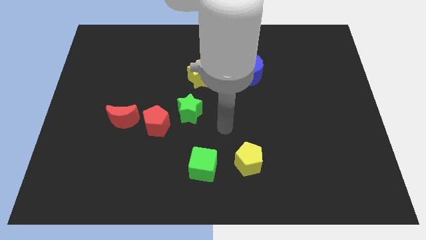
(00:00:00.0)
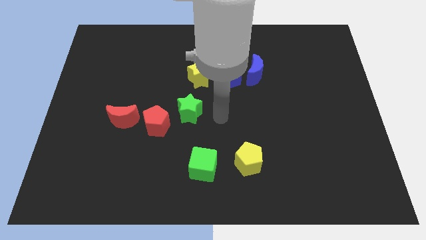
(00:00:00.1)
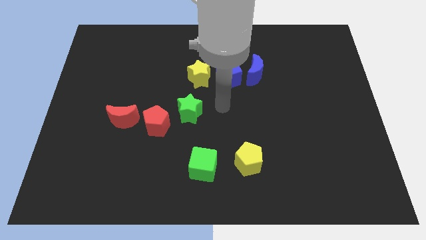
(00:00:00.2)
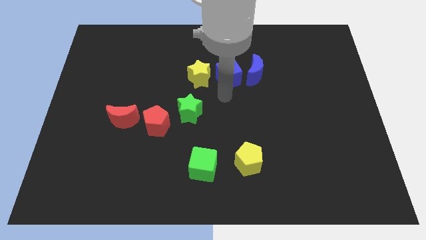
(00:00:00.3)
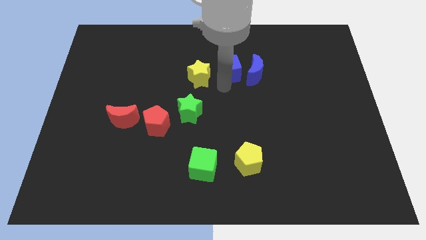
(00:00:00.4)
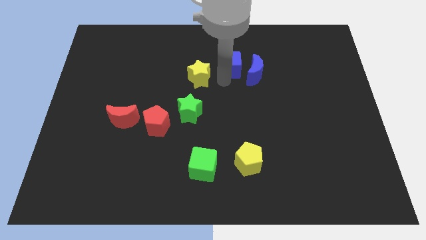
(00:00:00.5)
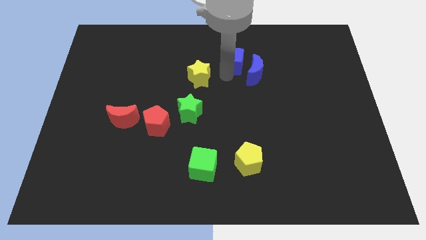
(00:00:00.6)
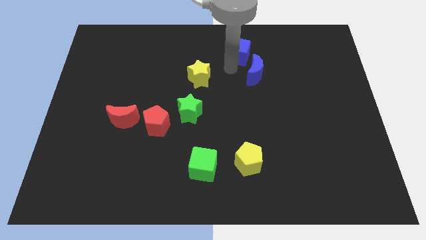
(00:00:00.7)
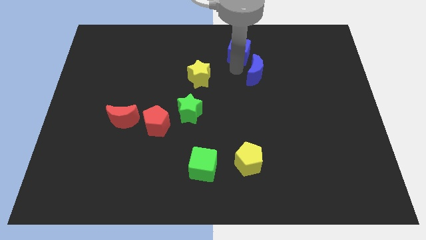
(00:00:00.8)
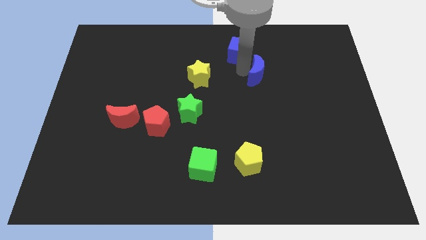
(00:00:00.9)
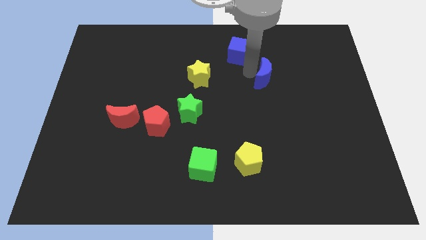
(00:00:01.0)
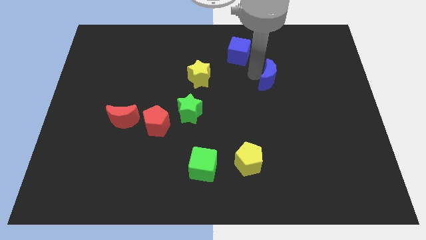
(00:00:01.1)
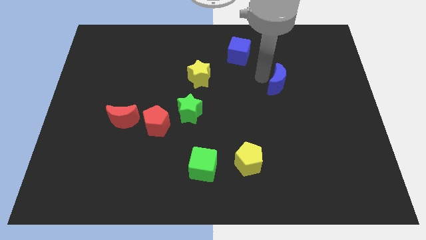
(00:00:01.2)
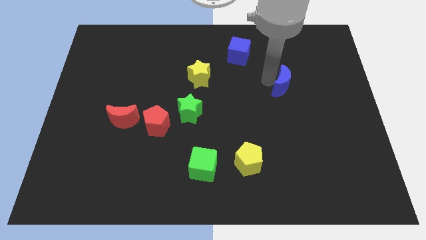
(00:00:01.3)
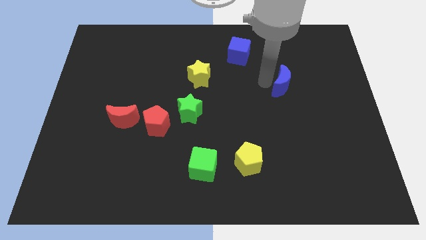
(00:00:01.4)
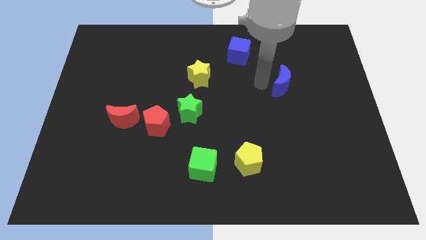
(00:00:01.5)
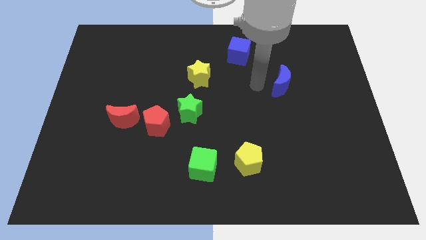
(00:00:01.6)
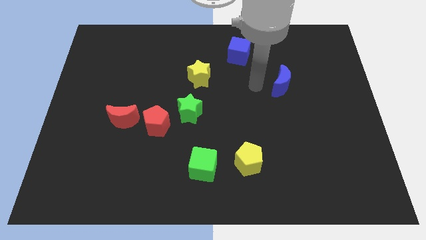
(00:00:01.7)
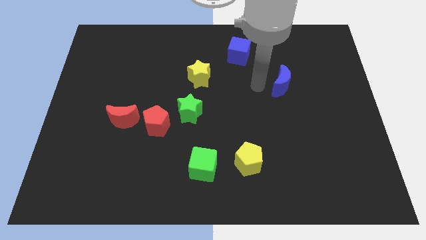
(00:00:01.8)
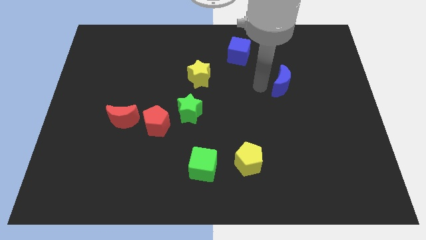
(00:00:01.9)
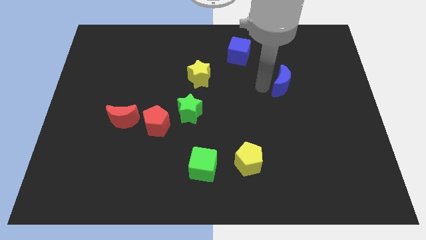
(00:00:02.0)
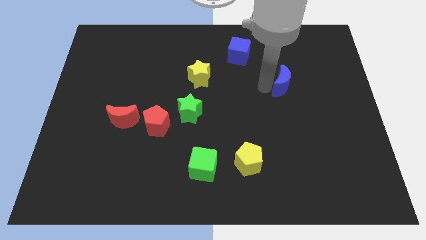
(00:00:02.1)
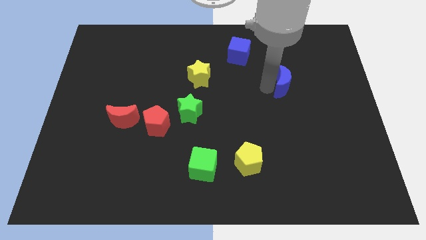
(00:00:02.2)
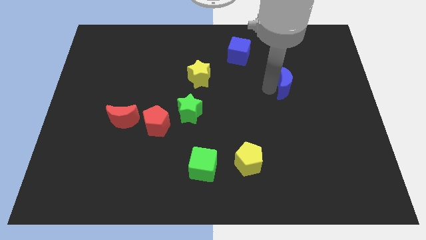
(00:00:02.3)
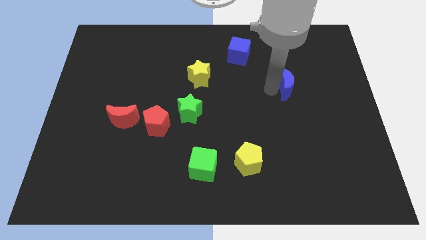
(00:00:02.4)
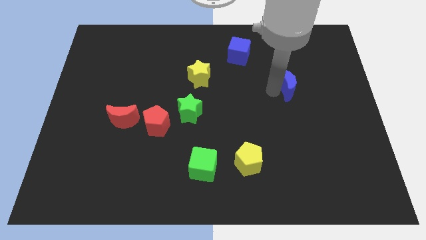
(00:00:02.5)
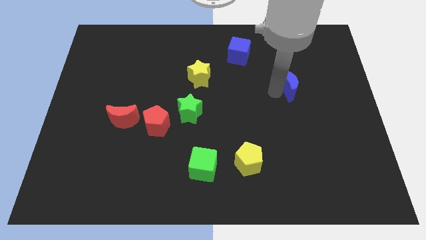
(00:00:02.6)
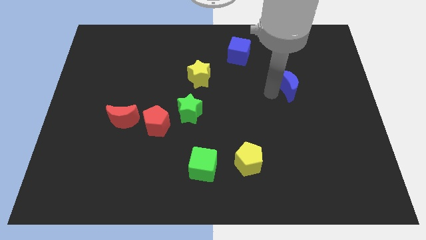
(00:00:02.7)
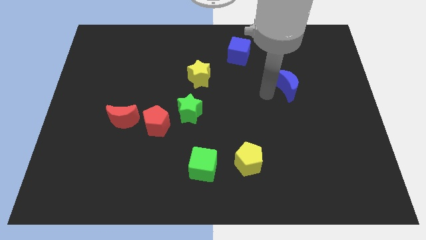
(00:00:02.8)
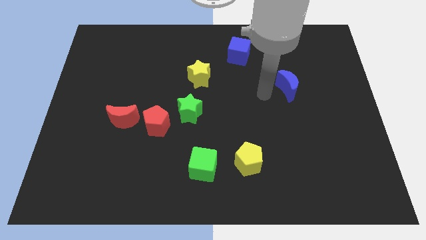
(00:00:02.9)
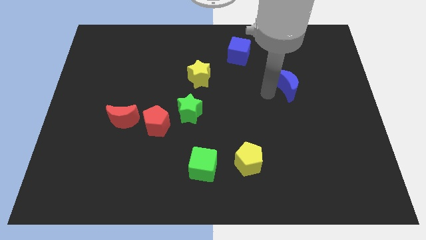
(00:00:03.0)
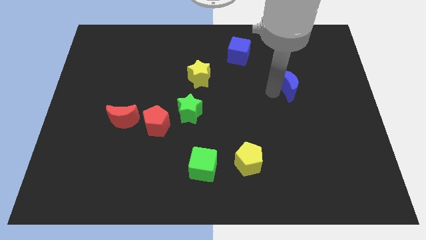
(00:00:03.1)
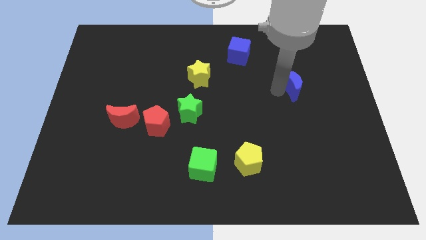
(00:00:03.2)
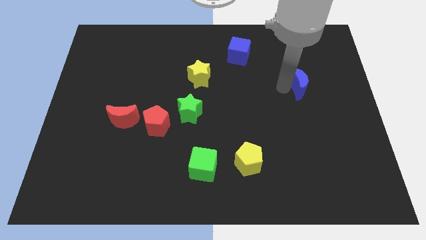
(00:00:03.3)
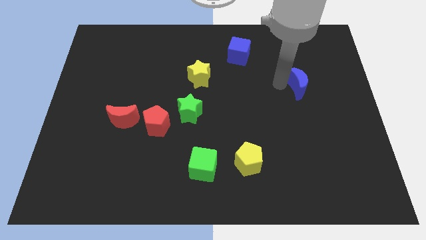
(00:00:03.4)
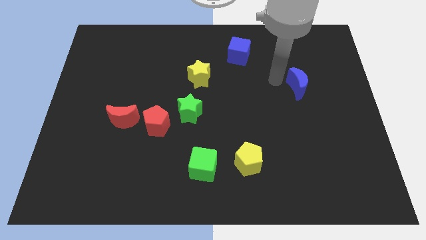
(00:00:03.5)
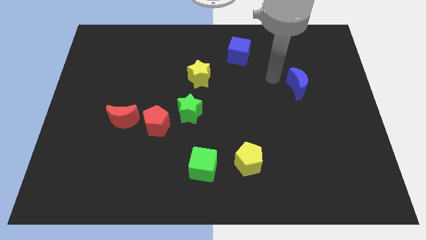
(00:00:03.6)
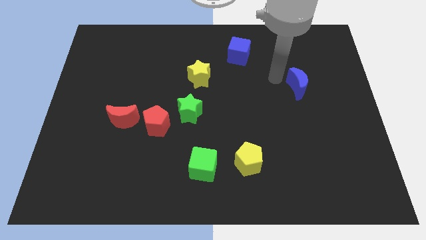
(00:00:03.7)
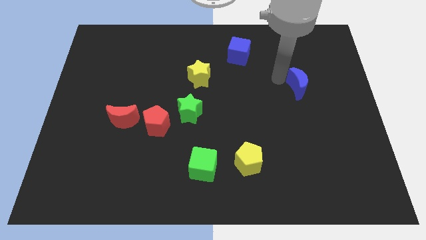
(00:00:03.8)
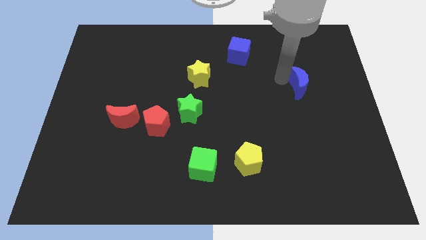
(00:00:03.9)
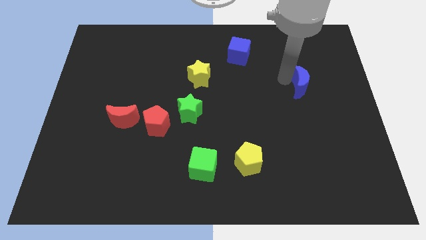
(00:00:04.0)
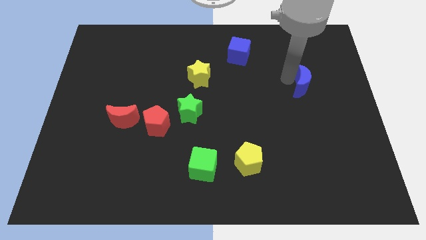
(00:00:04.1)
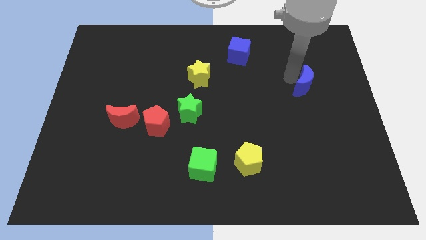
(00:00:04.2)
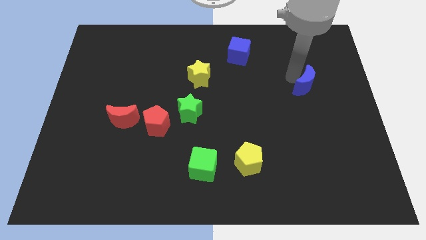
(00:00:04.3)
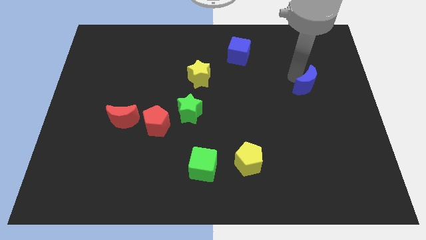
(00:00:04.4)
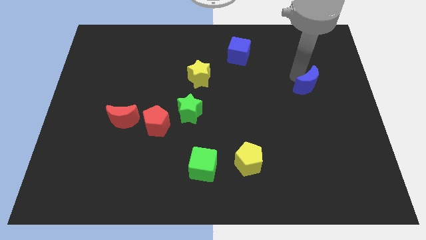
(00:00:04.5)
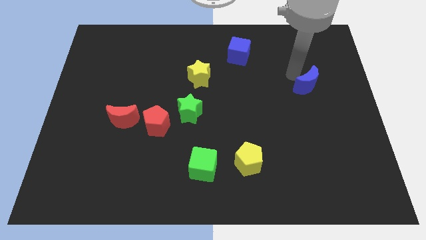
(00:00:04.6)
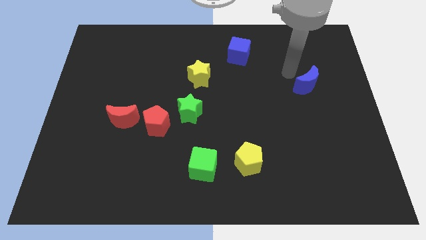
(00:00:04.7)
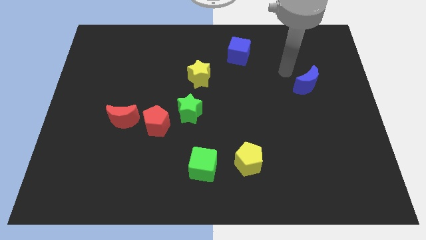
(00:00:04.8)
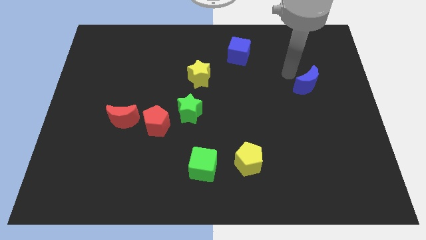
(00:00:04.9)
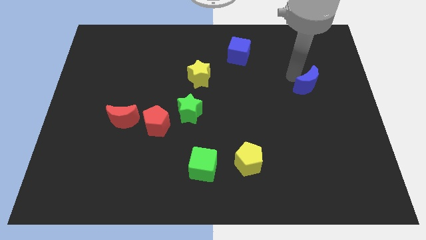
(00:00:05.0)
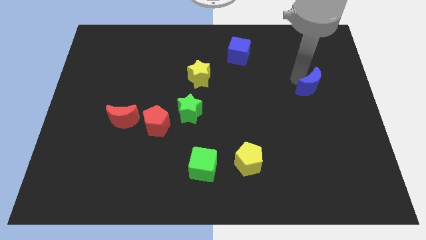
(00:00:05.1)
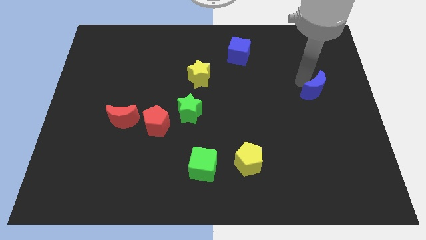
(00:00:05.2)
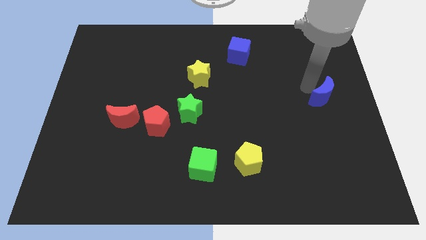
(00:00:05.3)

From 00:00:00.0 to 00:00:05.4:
slide the blue moon to the center right

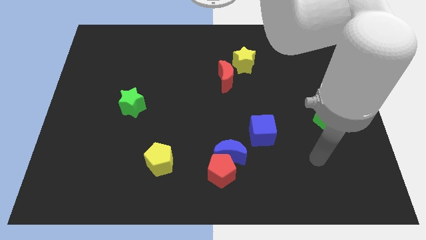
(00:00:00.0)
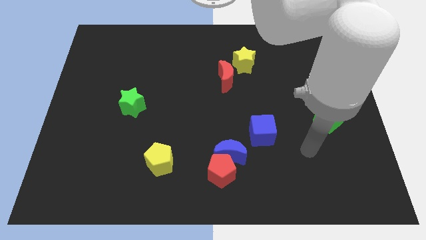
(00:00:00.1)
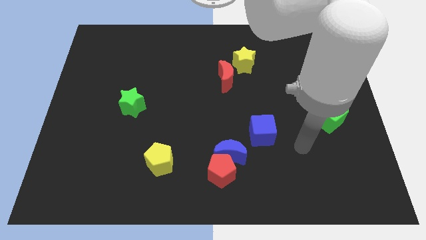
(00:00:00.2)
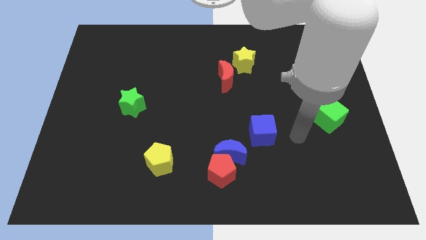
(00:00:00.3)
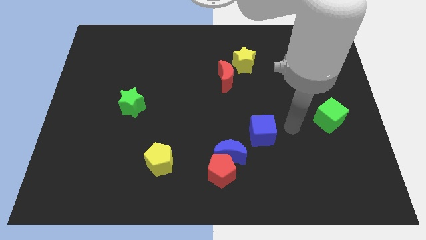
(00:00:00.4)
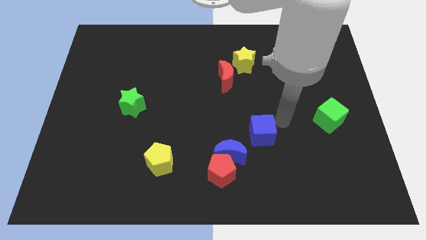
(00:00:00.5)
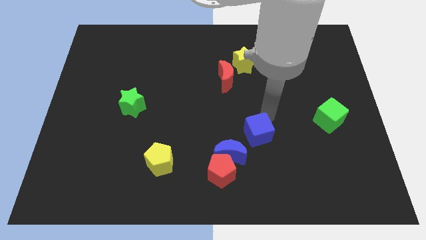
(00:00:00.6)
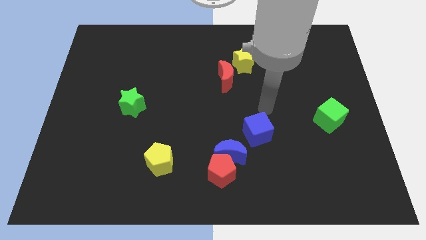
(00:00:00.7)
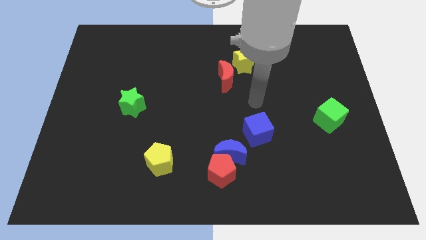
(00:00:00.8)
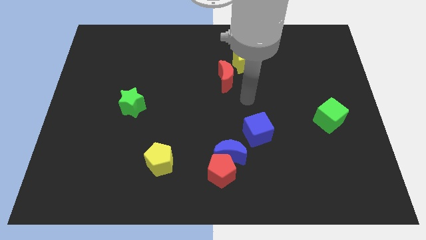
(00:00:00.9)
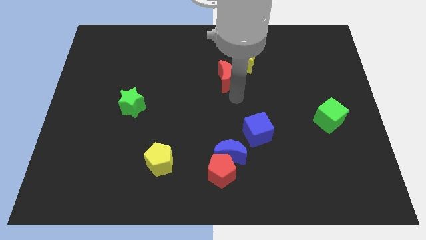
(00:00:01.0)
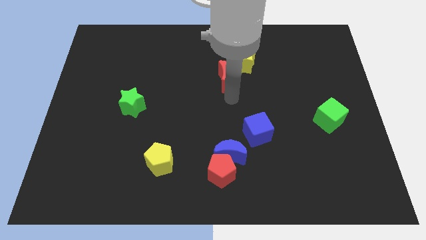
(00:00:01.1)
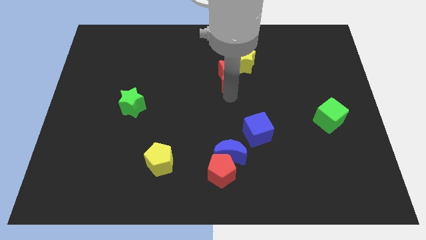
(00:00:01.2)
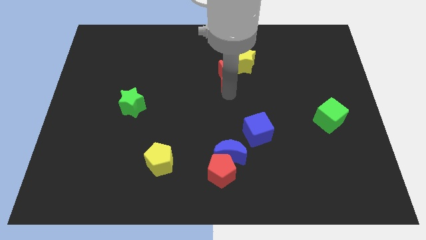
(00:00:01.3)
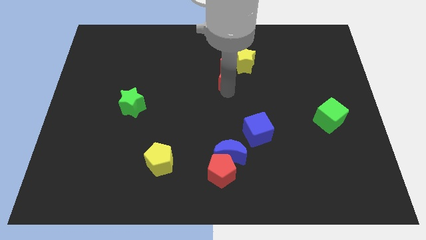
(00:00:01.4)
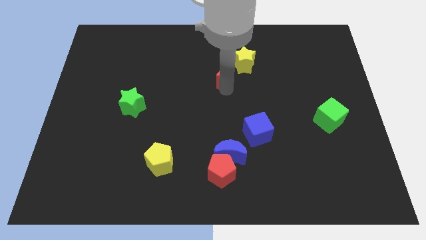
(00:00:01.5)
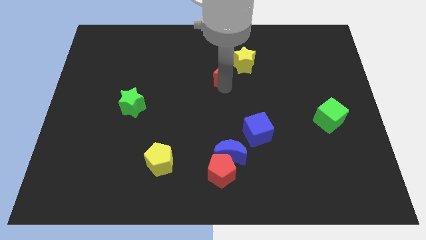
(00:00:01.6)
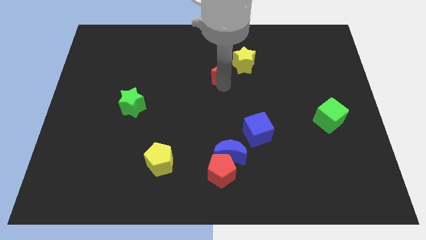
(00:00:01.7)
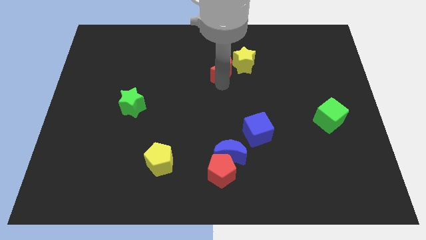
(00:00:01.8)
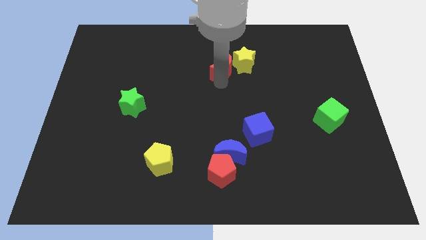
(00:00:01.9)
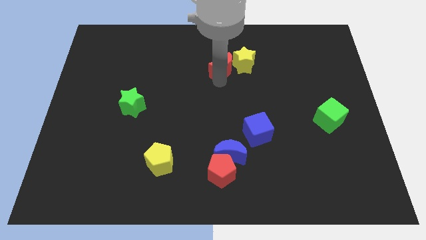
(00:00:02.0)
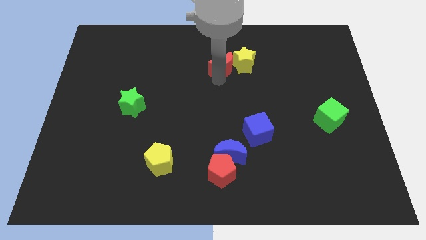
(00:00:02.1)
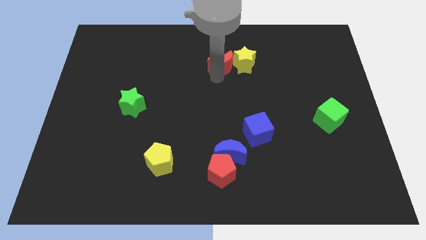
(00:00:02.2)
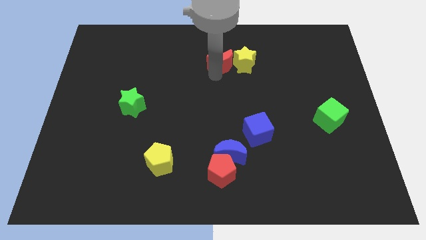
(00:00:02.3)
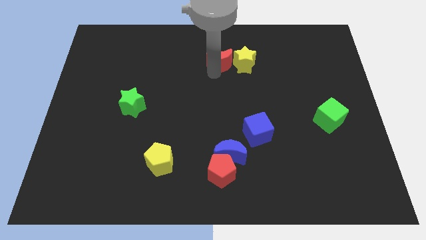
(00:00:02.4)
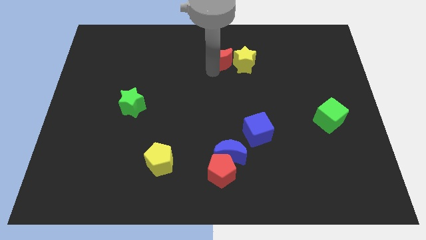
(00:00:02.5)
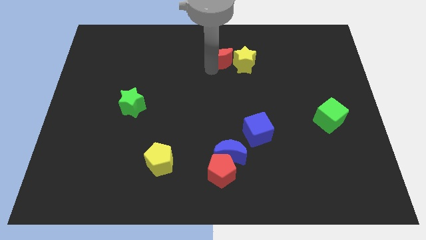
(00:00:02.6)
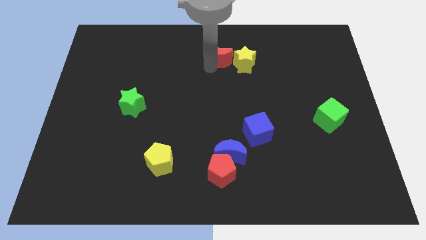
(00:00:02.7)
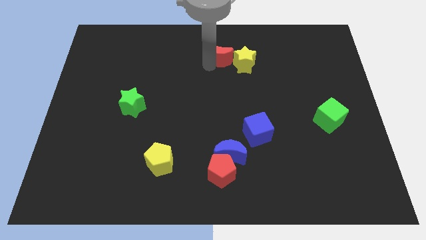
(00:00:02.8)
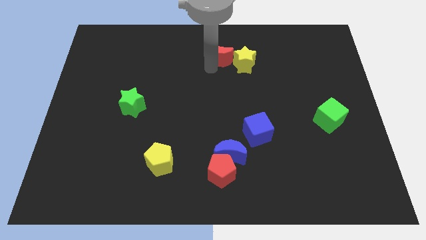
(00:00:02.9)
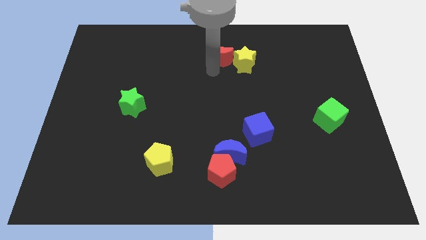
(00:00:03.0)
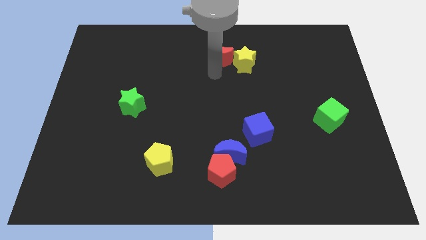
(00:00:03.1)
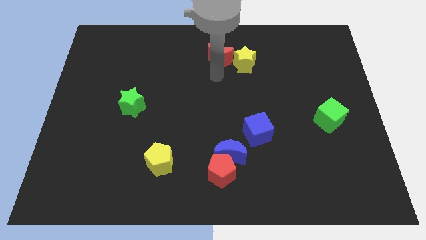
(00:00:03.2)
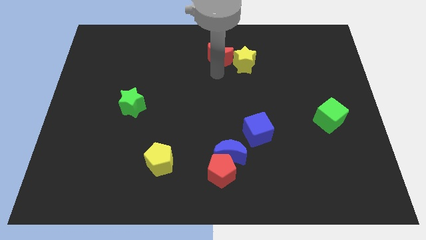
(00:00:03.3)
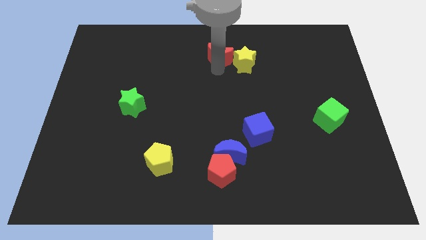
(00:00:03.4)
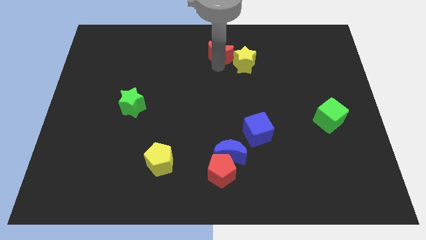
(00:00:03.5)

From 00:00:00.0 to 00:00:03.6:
push the red moon to the top
